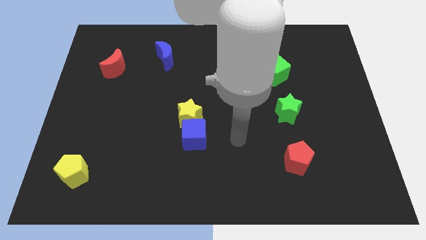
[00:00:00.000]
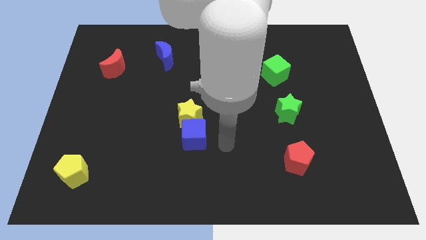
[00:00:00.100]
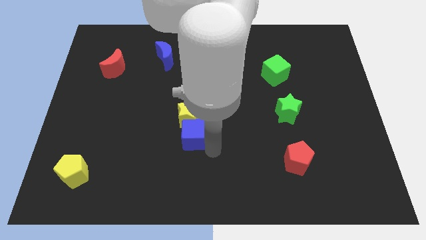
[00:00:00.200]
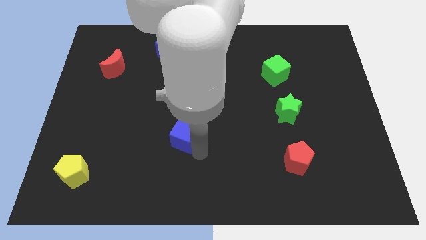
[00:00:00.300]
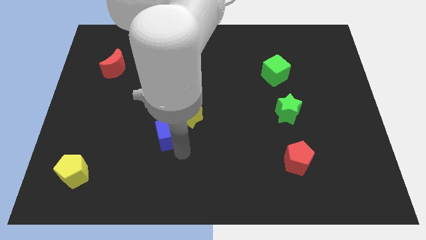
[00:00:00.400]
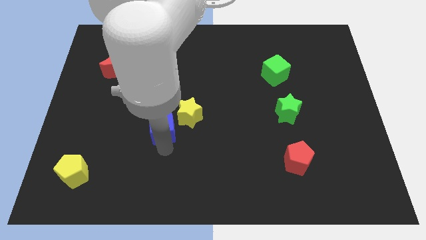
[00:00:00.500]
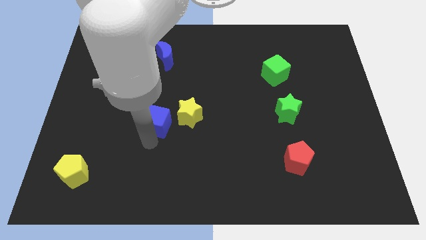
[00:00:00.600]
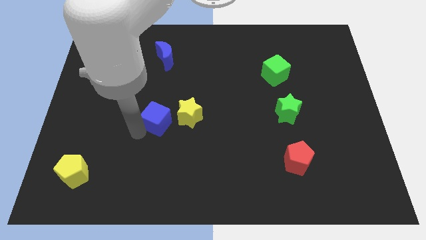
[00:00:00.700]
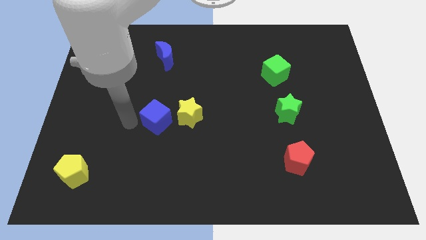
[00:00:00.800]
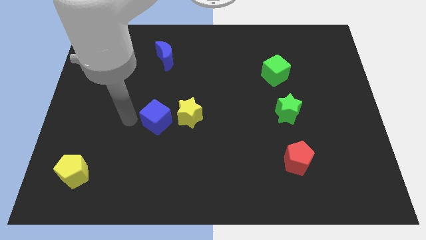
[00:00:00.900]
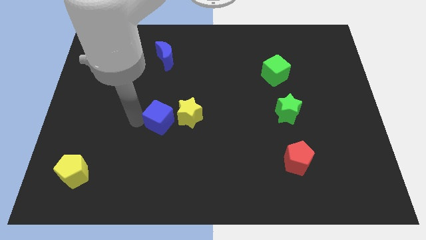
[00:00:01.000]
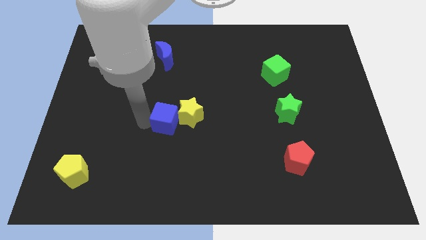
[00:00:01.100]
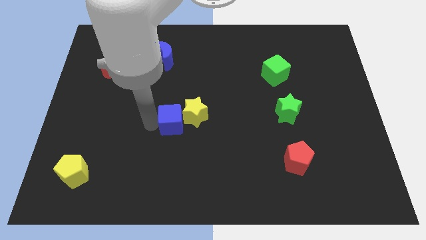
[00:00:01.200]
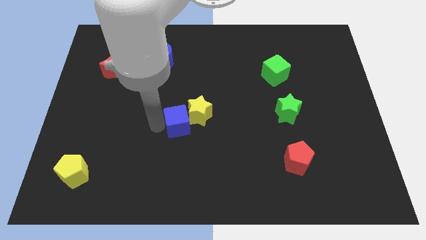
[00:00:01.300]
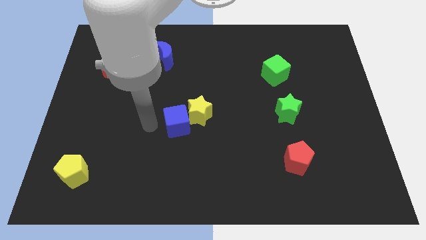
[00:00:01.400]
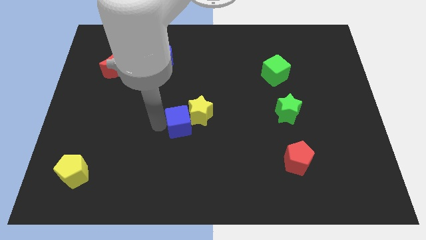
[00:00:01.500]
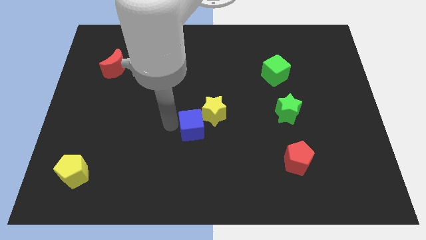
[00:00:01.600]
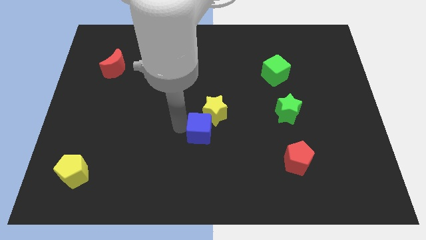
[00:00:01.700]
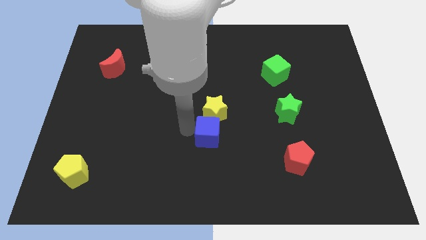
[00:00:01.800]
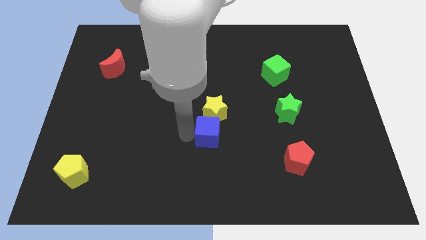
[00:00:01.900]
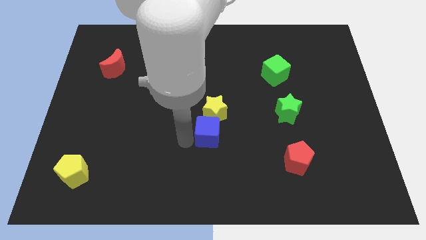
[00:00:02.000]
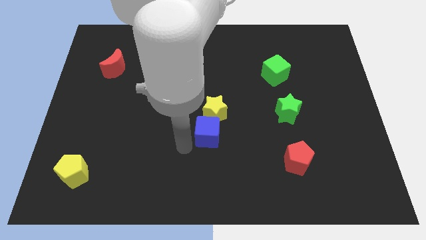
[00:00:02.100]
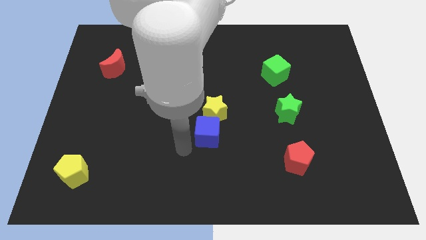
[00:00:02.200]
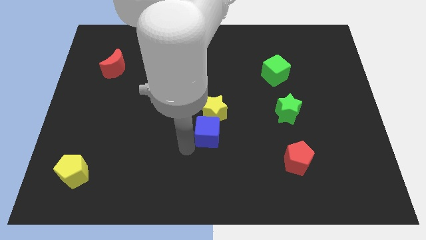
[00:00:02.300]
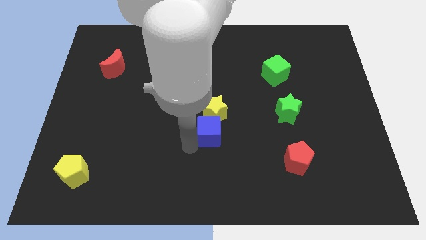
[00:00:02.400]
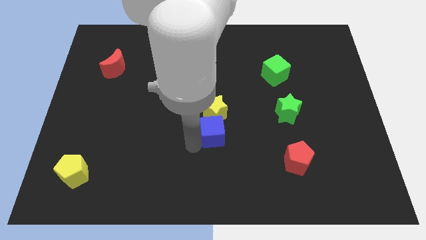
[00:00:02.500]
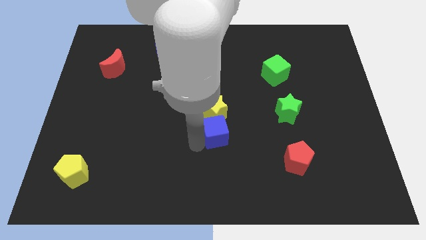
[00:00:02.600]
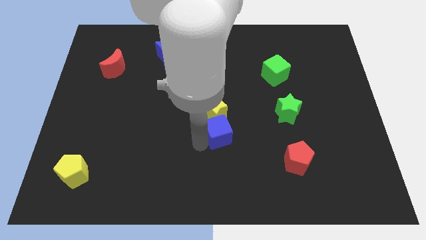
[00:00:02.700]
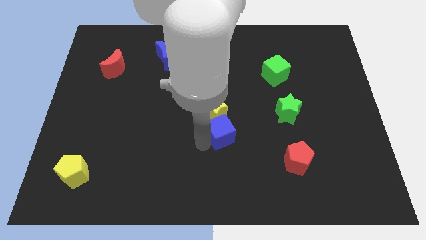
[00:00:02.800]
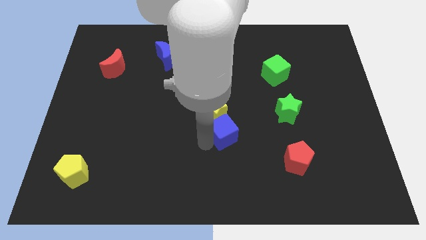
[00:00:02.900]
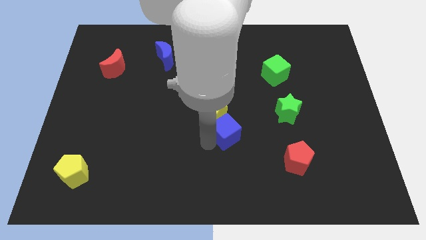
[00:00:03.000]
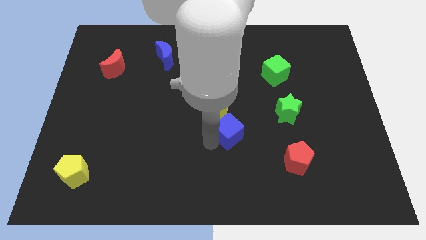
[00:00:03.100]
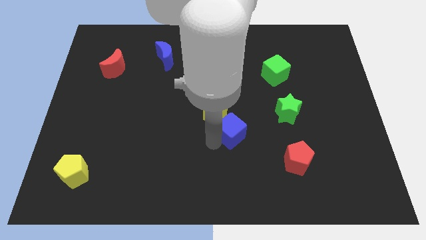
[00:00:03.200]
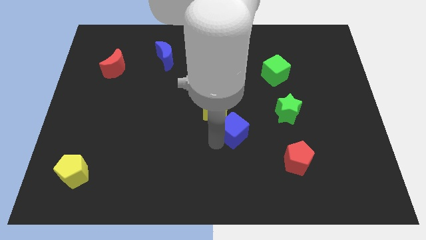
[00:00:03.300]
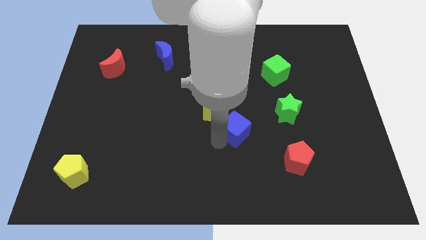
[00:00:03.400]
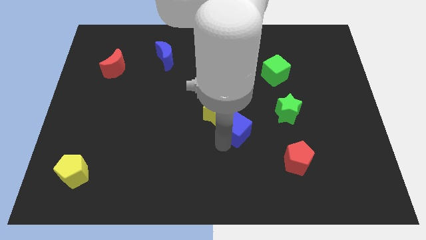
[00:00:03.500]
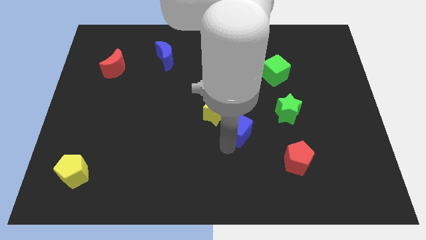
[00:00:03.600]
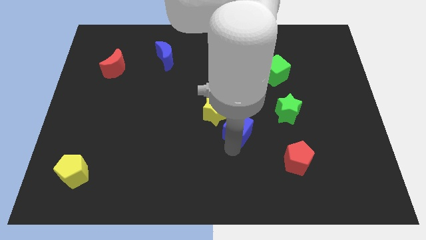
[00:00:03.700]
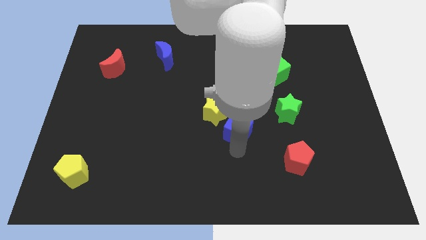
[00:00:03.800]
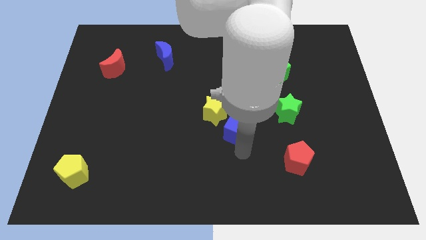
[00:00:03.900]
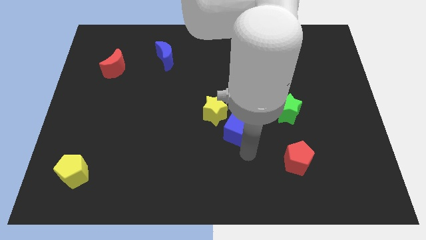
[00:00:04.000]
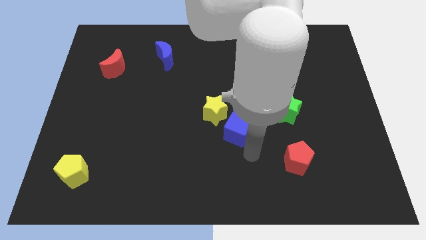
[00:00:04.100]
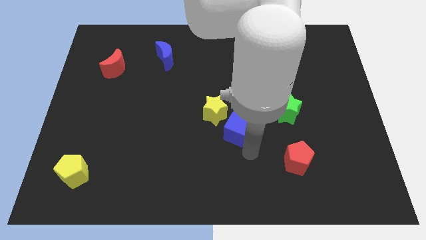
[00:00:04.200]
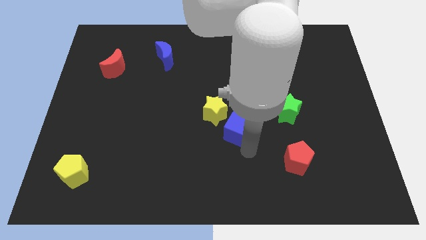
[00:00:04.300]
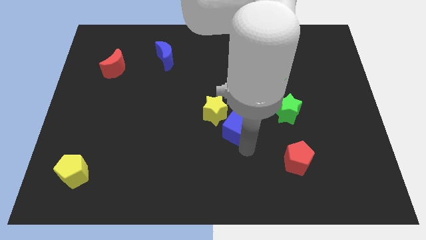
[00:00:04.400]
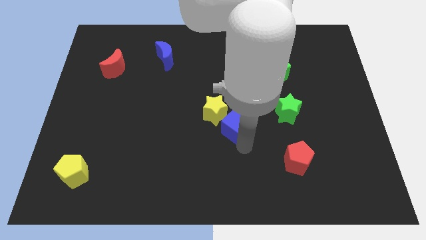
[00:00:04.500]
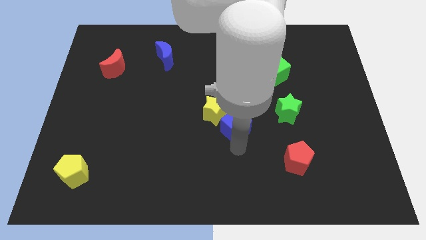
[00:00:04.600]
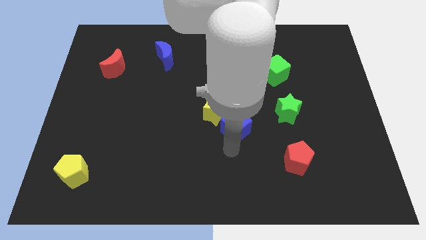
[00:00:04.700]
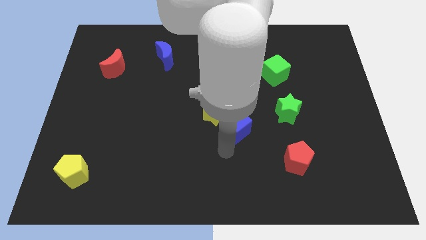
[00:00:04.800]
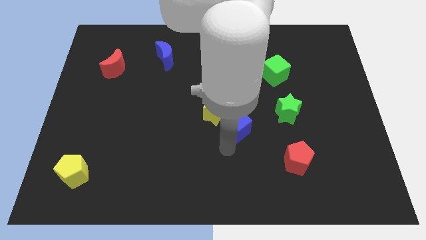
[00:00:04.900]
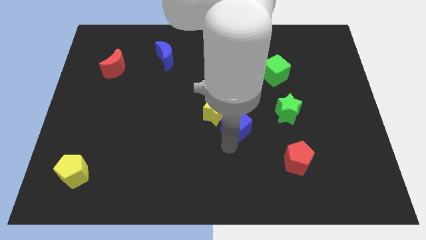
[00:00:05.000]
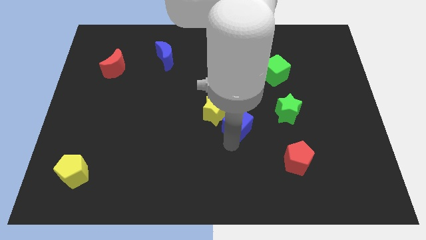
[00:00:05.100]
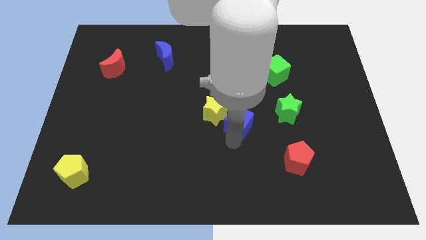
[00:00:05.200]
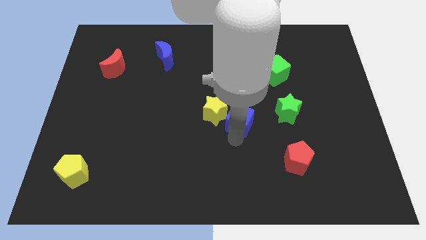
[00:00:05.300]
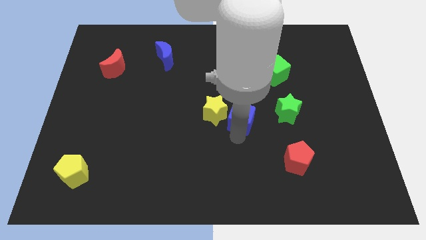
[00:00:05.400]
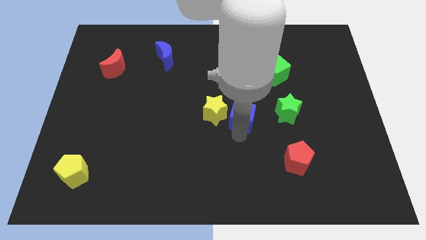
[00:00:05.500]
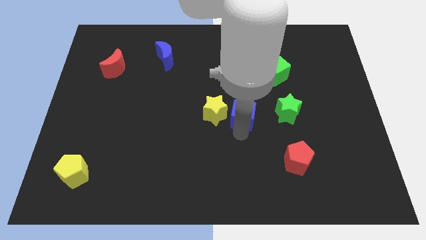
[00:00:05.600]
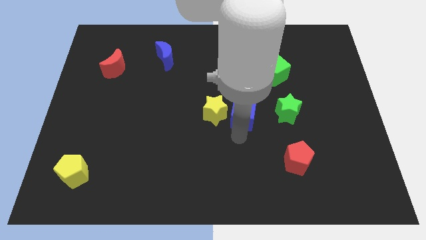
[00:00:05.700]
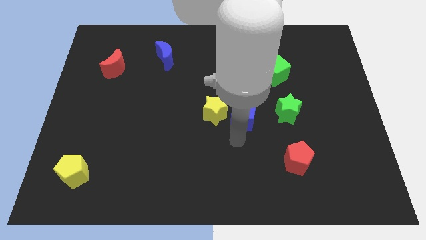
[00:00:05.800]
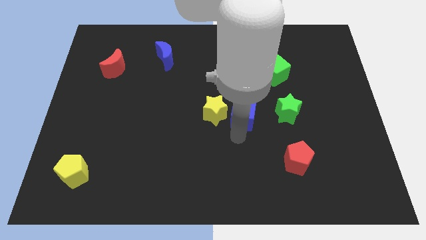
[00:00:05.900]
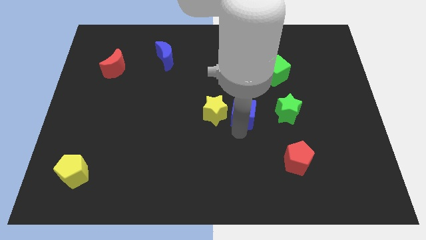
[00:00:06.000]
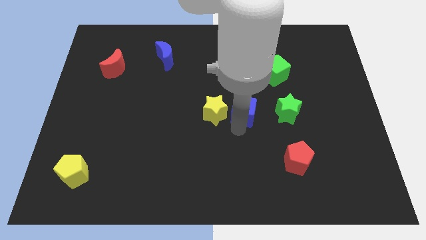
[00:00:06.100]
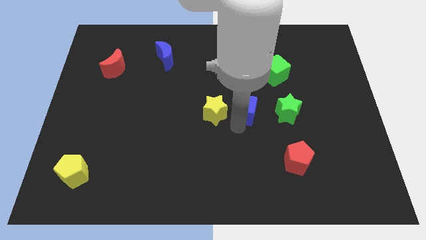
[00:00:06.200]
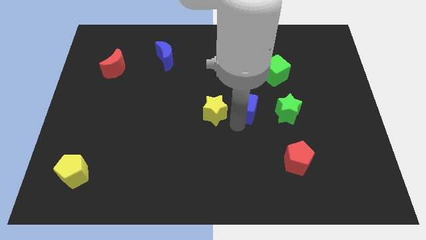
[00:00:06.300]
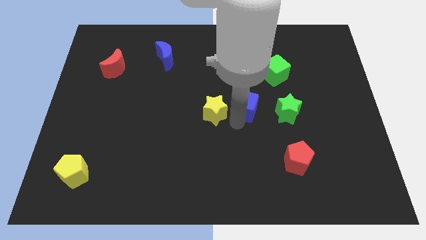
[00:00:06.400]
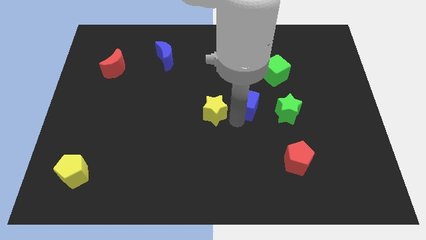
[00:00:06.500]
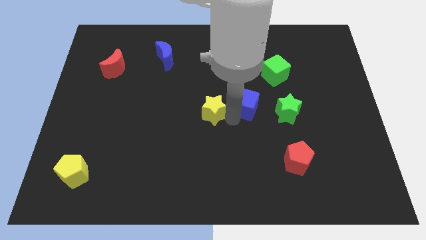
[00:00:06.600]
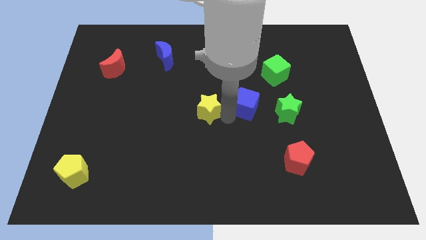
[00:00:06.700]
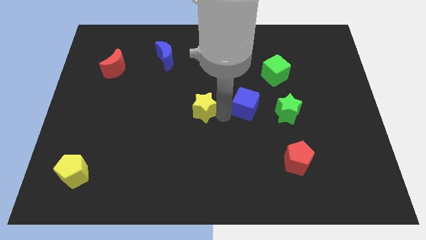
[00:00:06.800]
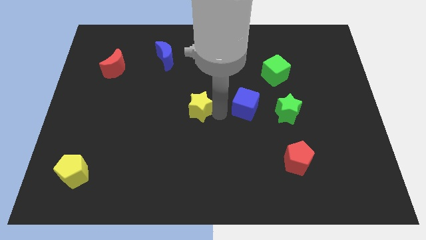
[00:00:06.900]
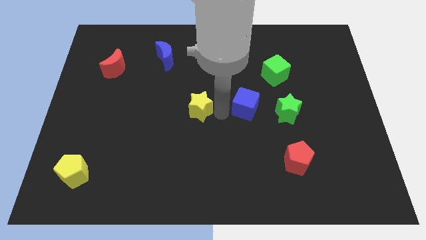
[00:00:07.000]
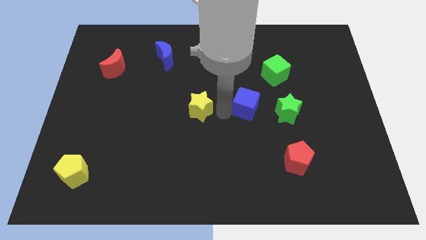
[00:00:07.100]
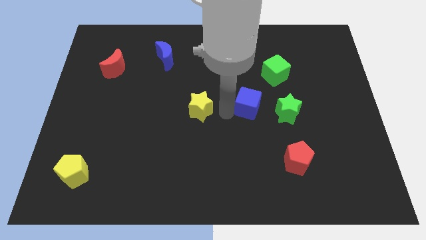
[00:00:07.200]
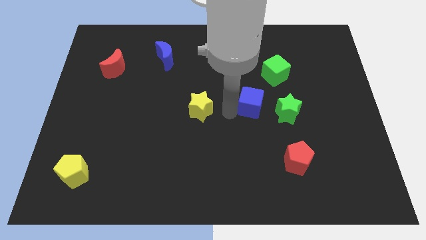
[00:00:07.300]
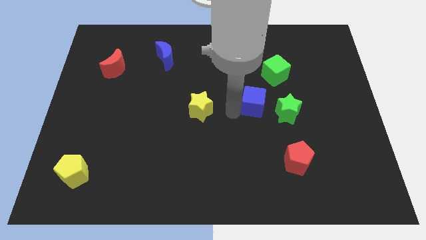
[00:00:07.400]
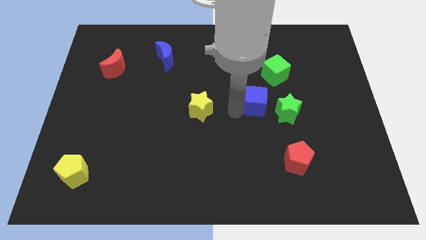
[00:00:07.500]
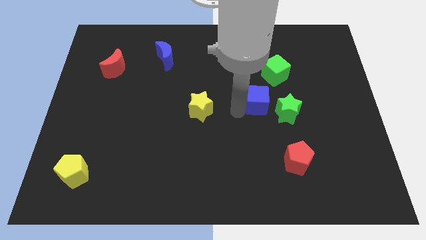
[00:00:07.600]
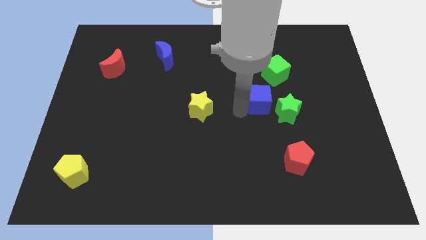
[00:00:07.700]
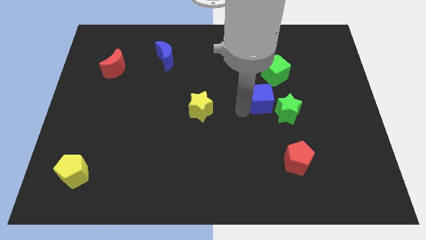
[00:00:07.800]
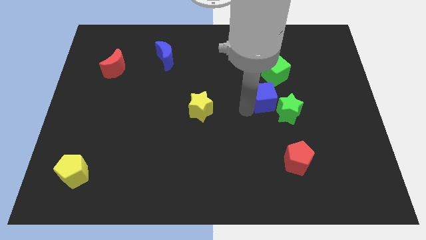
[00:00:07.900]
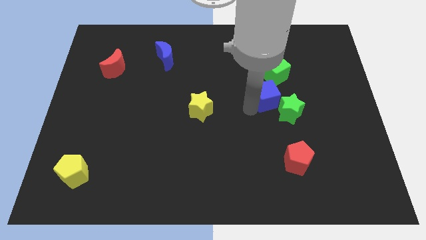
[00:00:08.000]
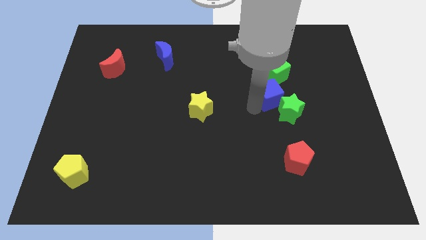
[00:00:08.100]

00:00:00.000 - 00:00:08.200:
push the blue cube up and then right
